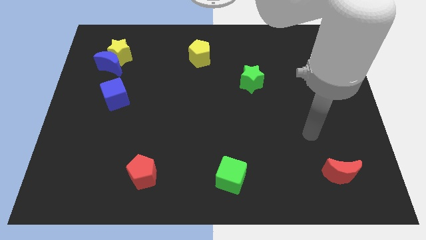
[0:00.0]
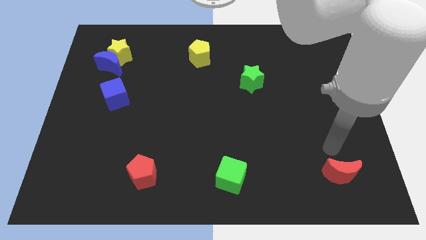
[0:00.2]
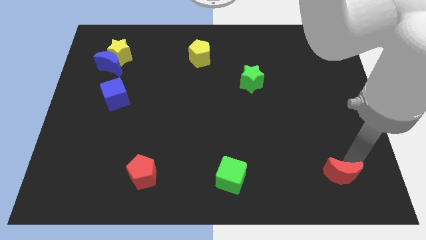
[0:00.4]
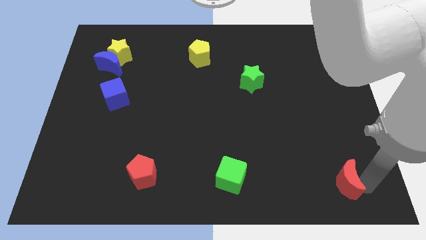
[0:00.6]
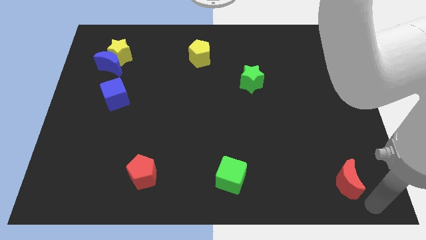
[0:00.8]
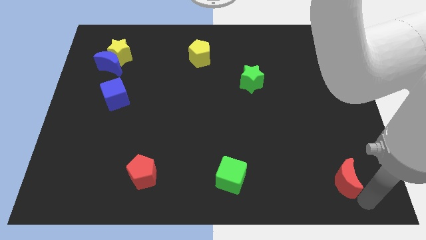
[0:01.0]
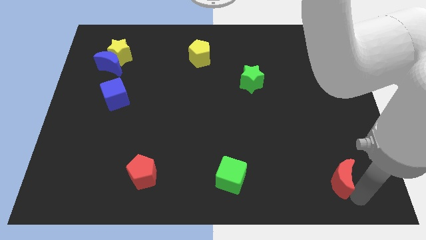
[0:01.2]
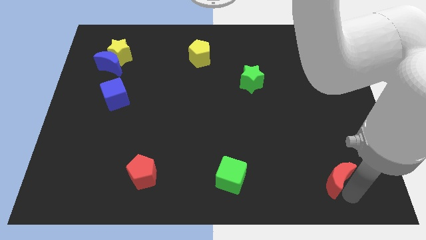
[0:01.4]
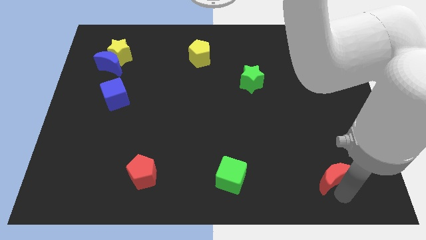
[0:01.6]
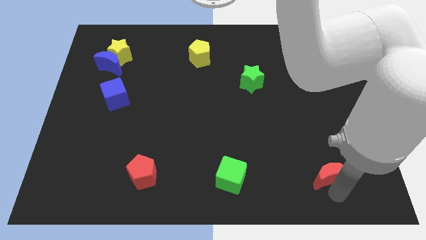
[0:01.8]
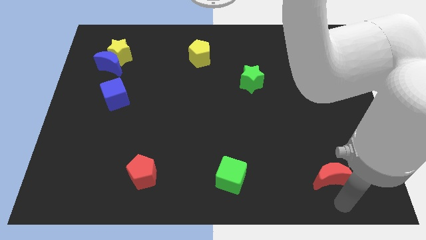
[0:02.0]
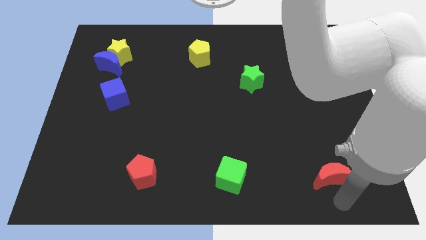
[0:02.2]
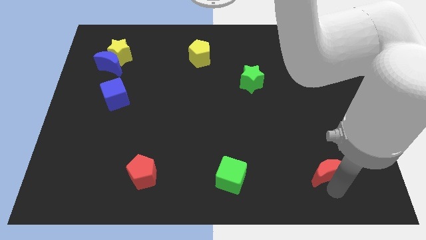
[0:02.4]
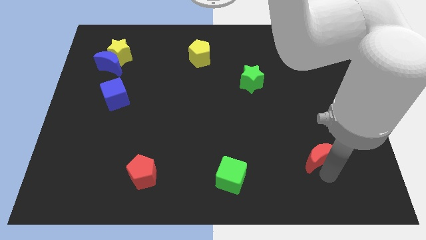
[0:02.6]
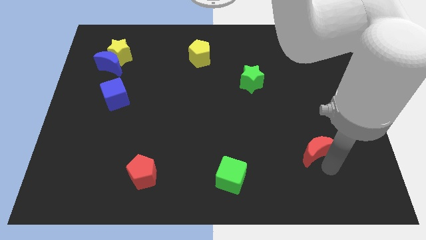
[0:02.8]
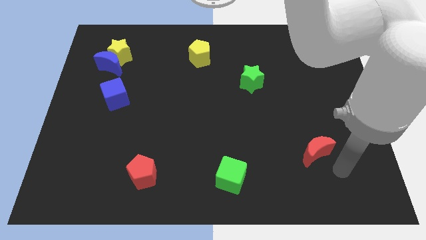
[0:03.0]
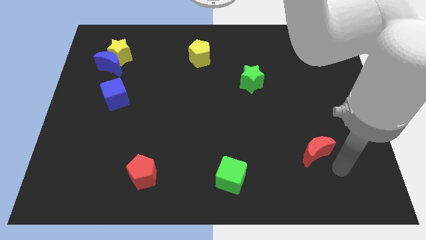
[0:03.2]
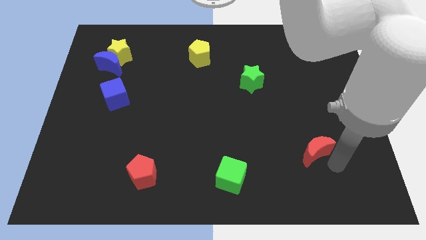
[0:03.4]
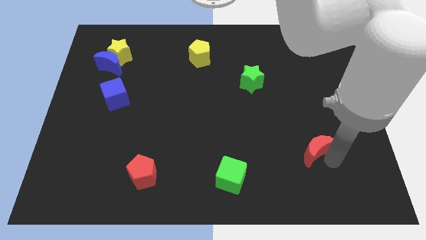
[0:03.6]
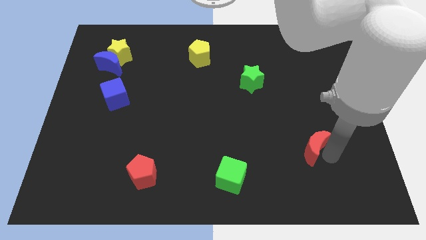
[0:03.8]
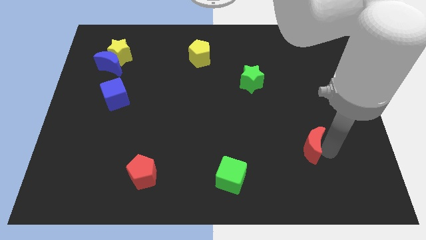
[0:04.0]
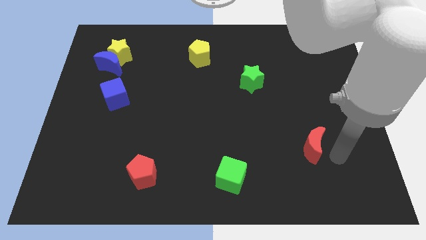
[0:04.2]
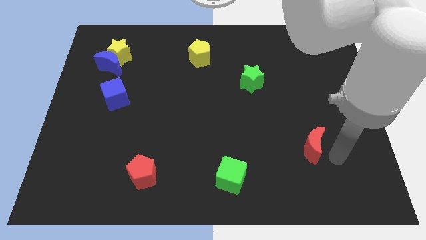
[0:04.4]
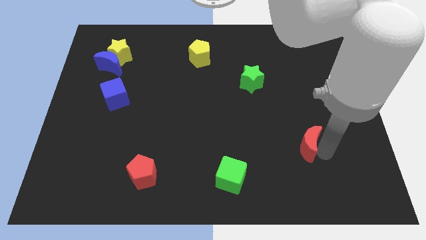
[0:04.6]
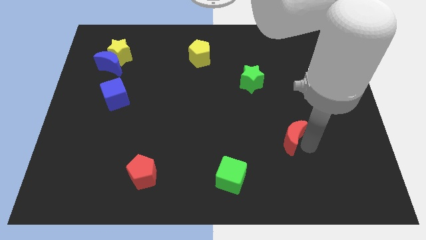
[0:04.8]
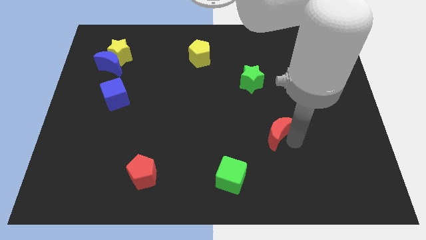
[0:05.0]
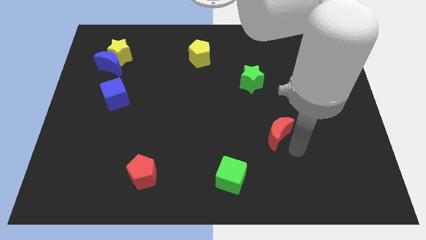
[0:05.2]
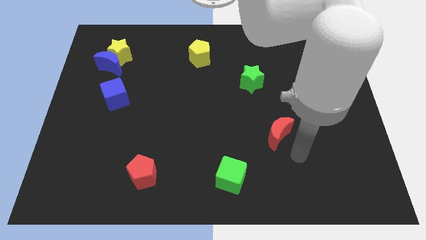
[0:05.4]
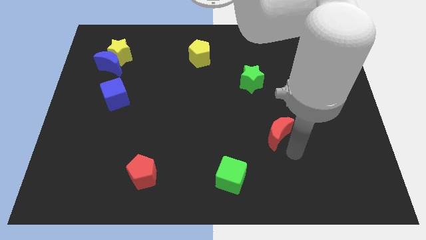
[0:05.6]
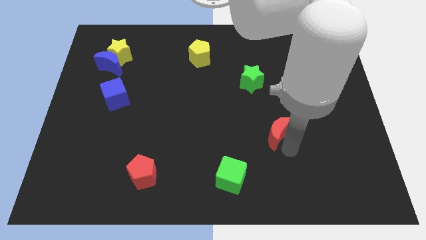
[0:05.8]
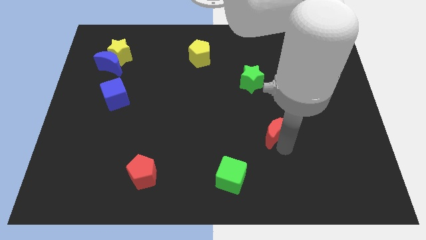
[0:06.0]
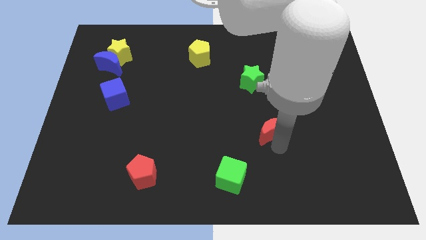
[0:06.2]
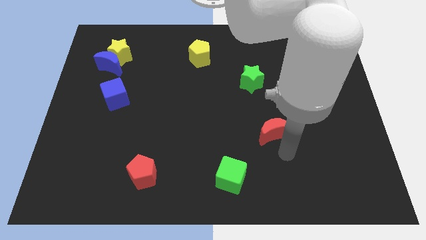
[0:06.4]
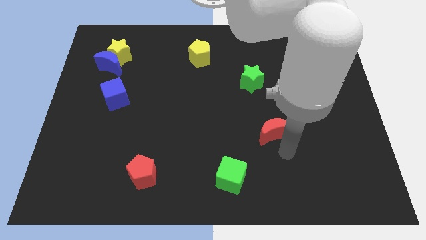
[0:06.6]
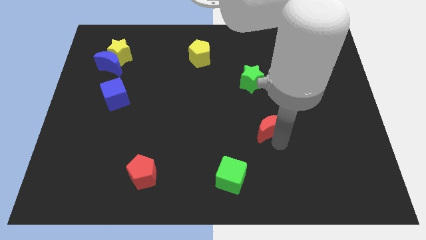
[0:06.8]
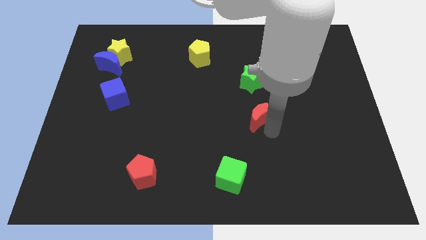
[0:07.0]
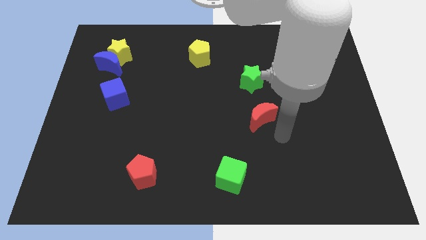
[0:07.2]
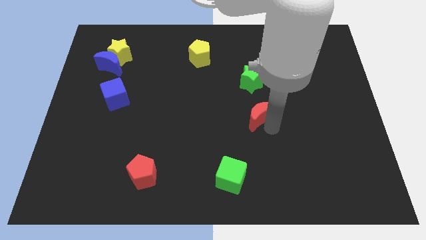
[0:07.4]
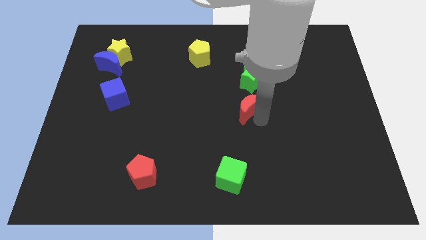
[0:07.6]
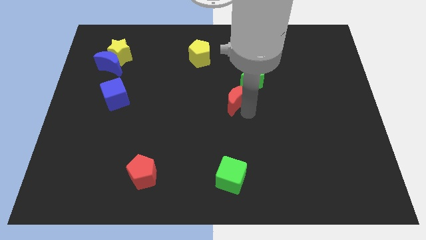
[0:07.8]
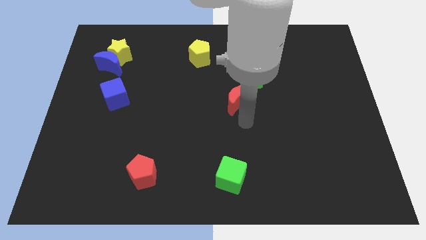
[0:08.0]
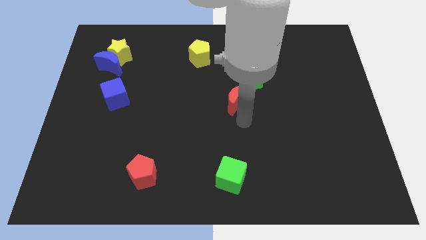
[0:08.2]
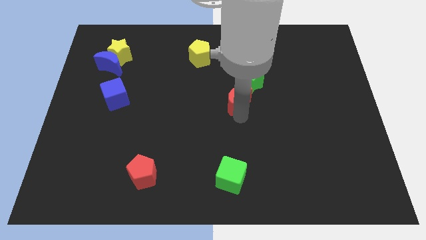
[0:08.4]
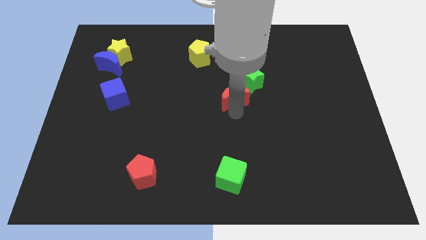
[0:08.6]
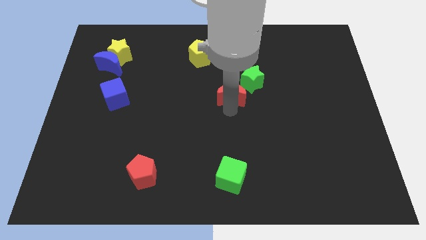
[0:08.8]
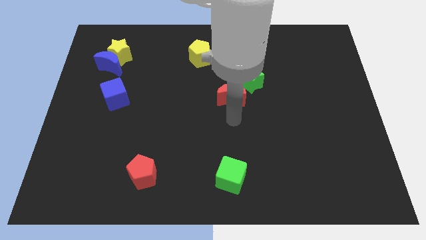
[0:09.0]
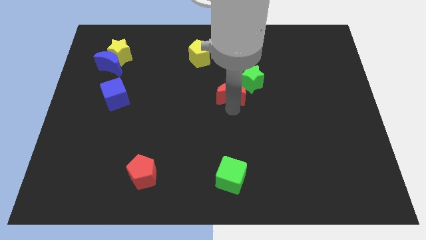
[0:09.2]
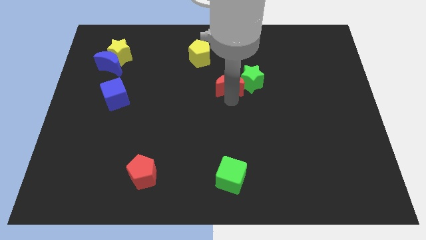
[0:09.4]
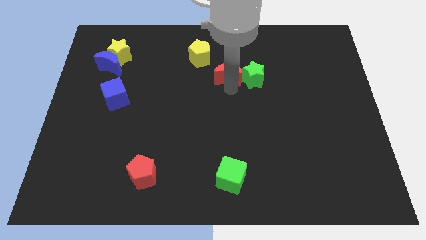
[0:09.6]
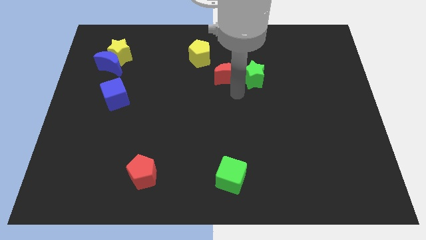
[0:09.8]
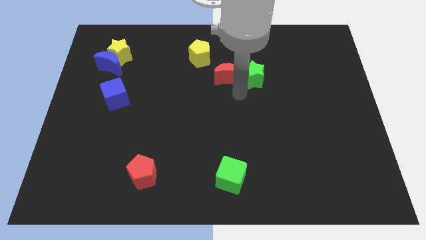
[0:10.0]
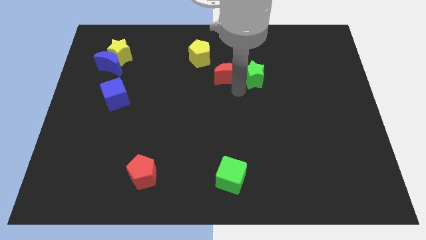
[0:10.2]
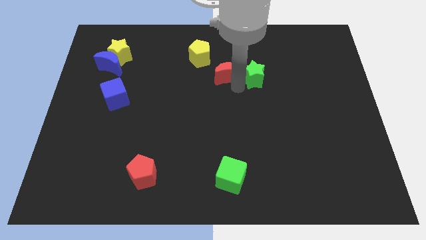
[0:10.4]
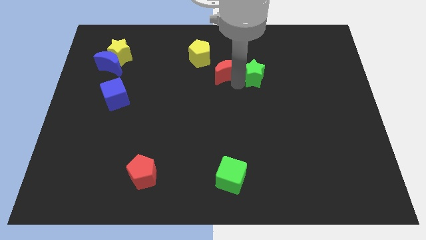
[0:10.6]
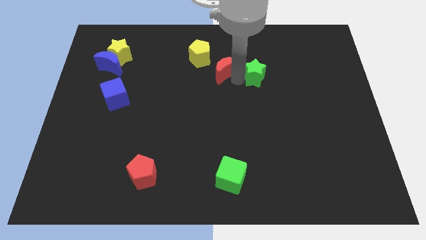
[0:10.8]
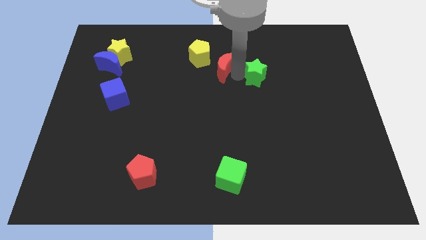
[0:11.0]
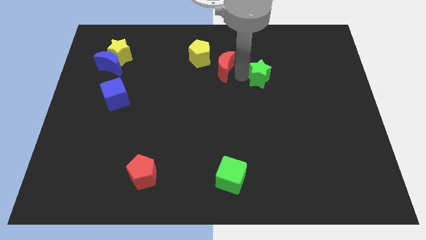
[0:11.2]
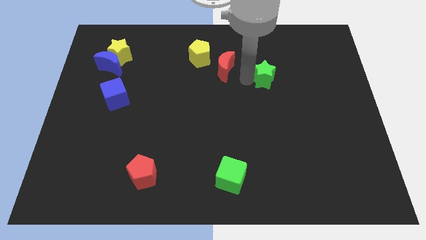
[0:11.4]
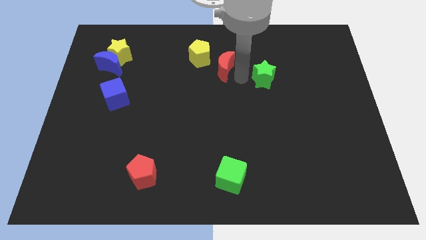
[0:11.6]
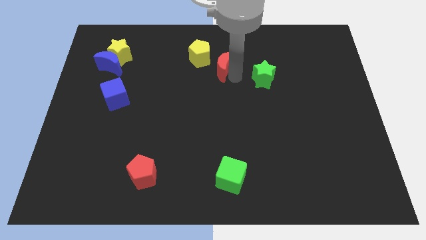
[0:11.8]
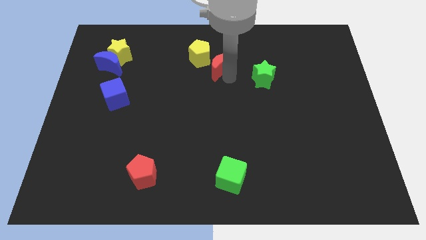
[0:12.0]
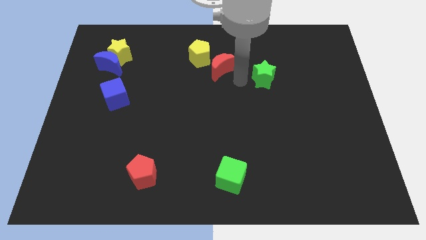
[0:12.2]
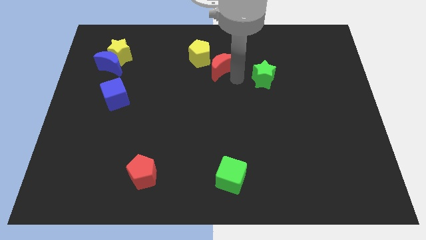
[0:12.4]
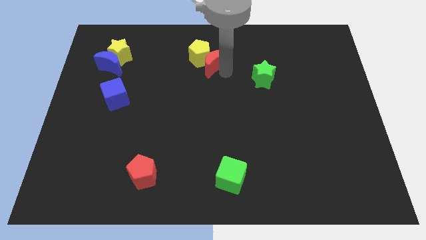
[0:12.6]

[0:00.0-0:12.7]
push the red moon close to the yellow pentagon

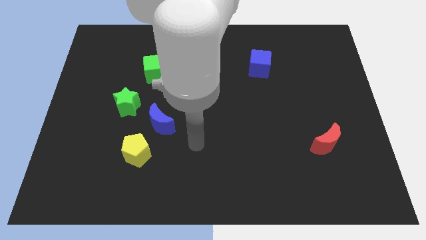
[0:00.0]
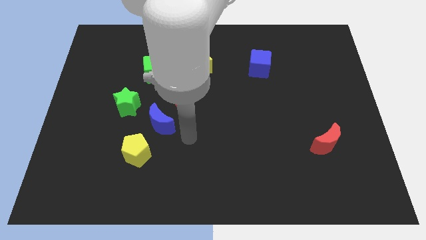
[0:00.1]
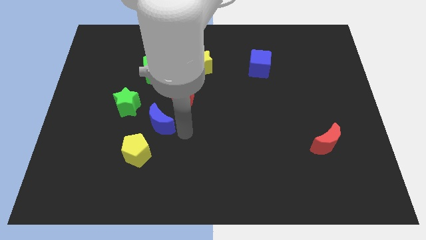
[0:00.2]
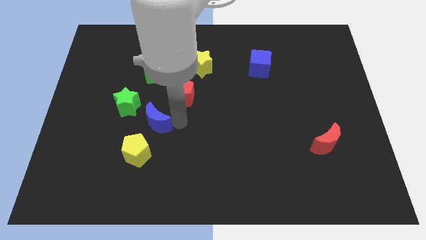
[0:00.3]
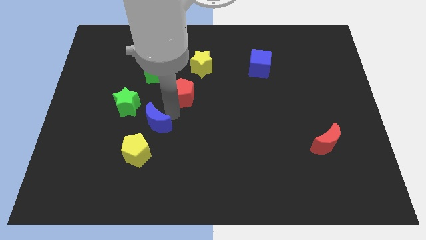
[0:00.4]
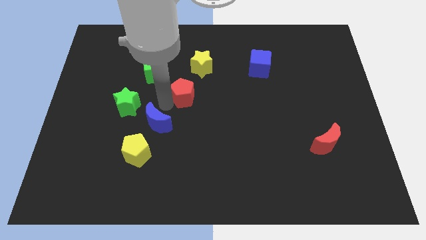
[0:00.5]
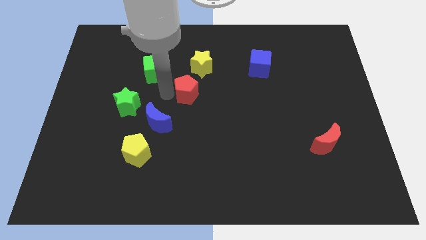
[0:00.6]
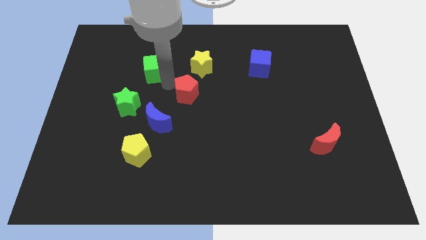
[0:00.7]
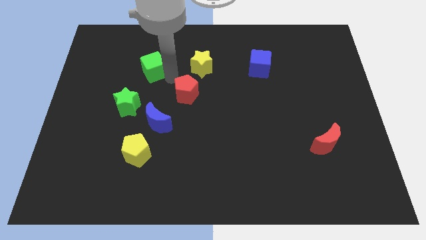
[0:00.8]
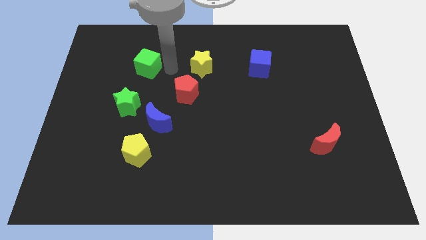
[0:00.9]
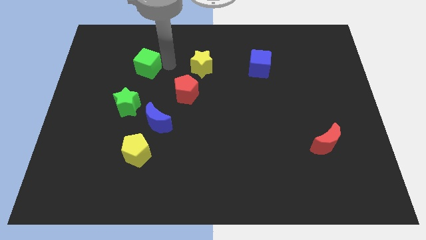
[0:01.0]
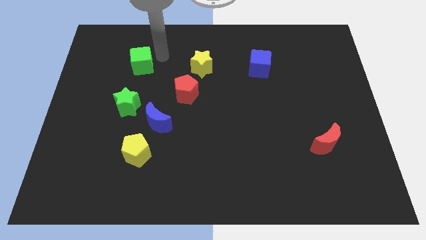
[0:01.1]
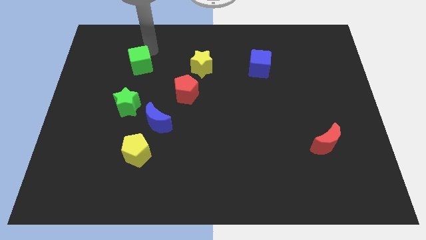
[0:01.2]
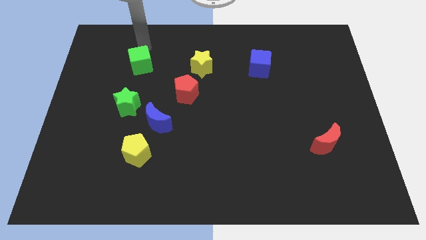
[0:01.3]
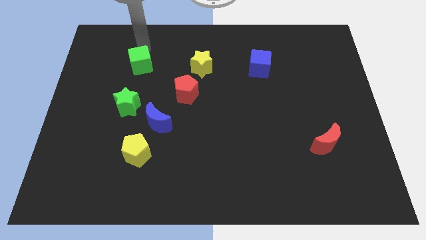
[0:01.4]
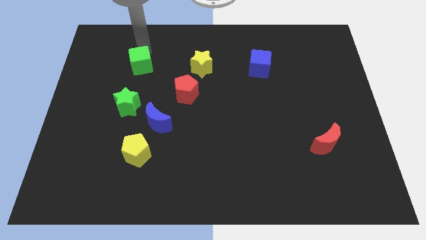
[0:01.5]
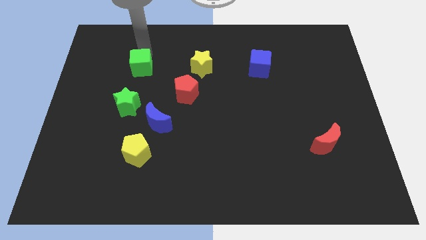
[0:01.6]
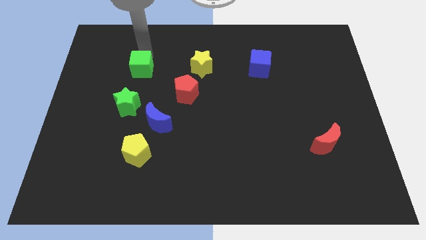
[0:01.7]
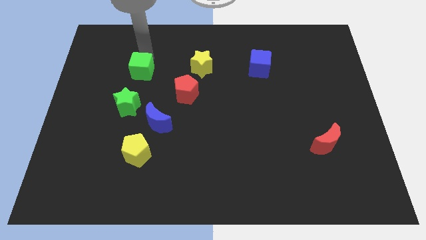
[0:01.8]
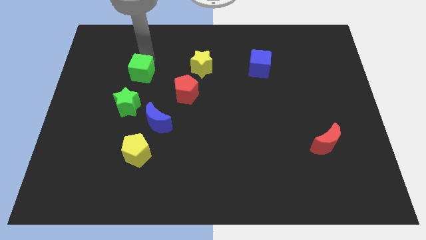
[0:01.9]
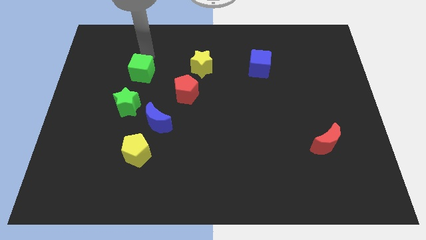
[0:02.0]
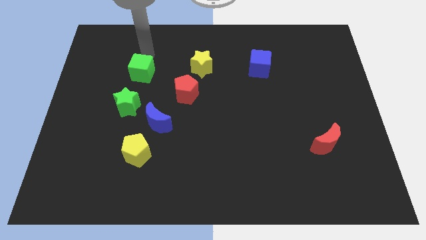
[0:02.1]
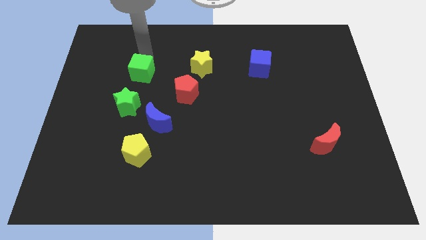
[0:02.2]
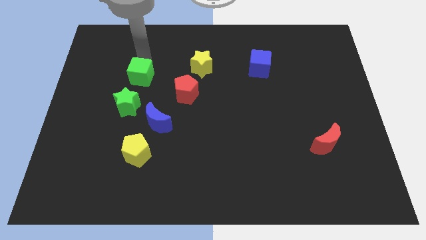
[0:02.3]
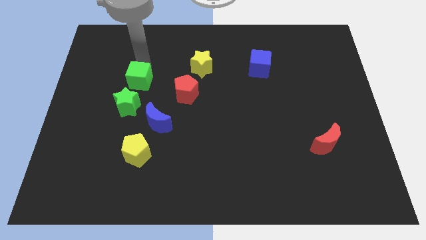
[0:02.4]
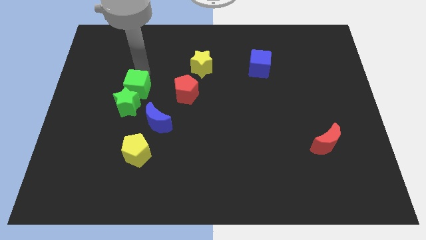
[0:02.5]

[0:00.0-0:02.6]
push the green cube towards the green star
